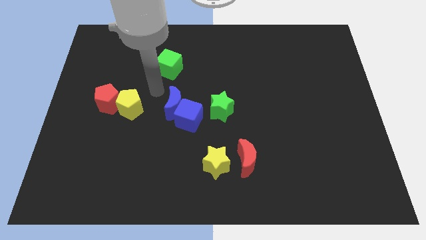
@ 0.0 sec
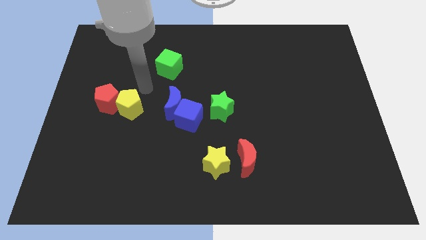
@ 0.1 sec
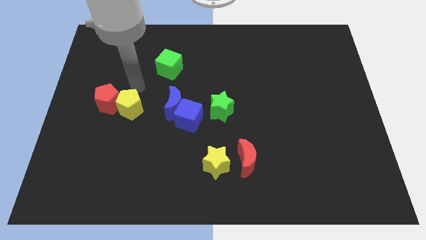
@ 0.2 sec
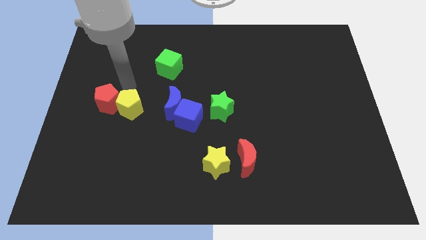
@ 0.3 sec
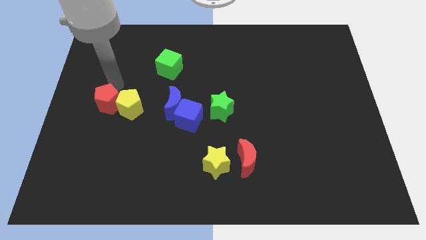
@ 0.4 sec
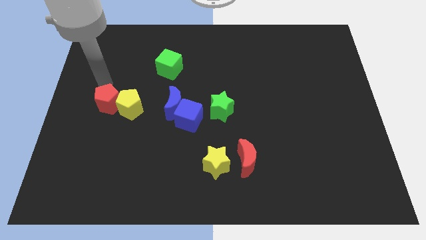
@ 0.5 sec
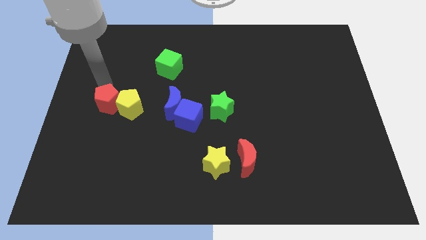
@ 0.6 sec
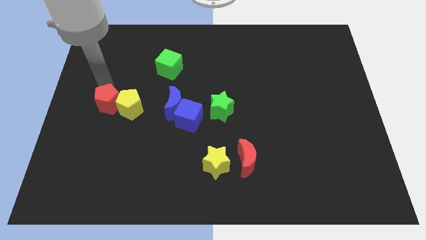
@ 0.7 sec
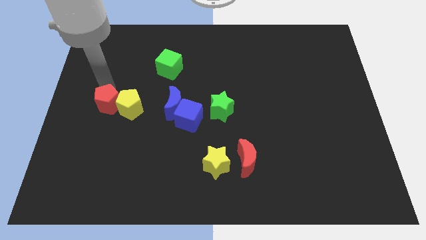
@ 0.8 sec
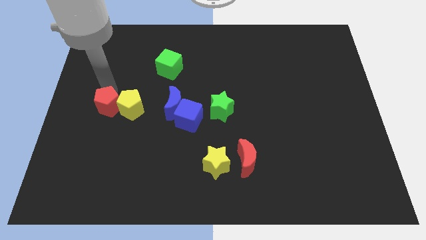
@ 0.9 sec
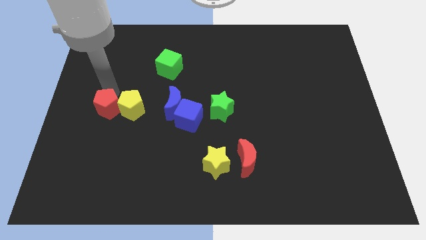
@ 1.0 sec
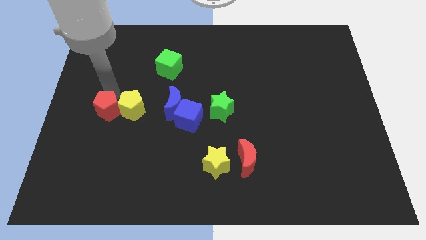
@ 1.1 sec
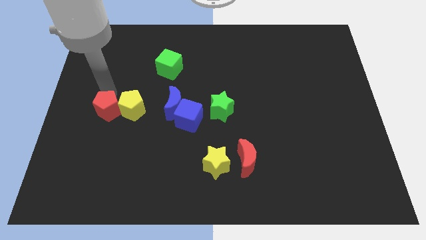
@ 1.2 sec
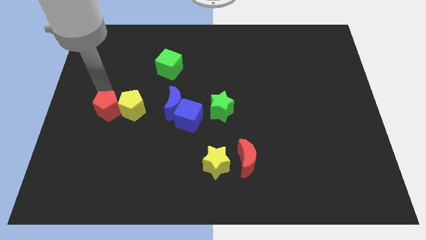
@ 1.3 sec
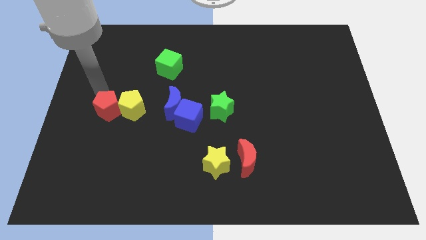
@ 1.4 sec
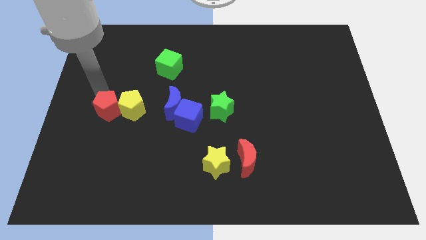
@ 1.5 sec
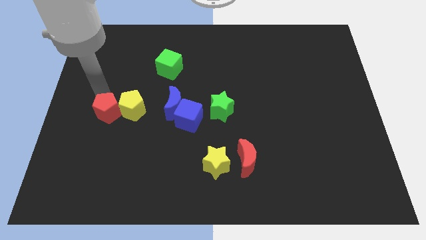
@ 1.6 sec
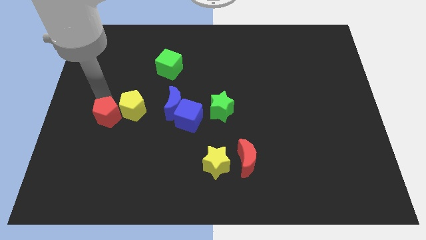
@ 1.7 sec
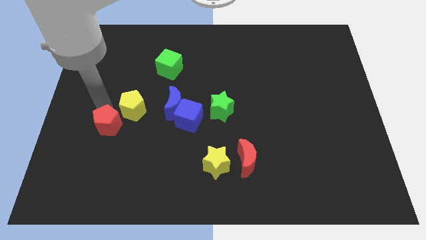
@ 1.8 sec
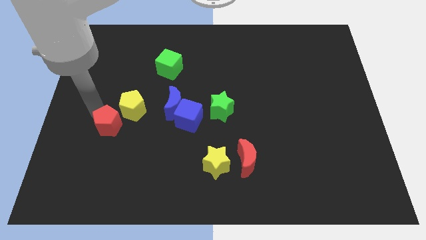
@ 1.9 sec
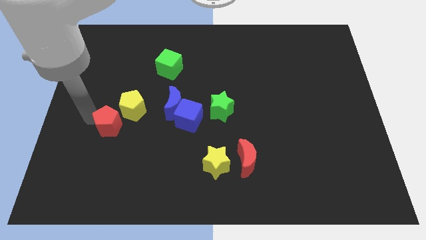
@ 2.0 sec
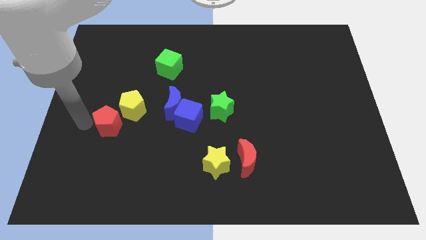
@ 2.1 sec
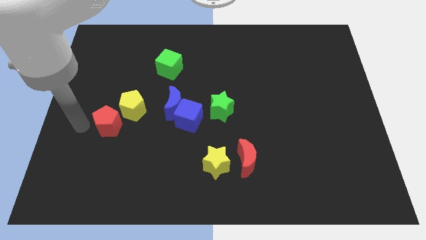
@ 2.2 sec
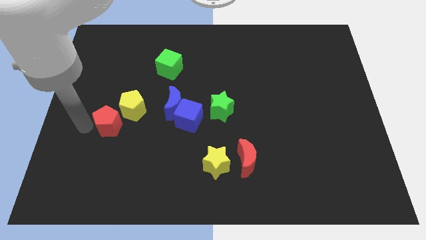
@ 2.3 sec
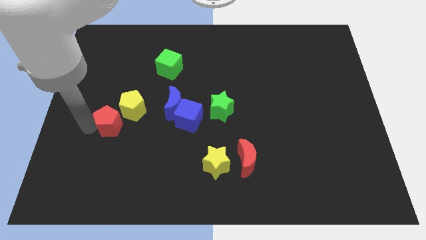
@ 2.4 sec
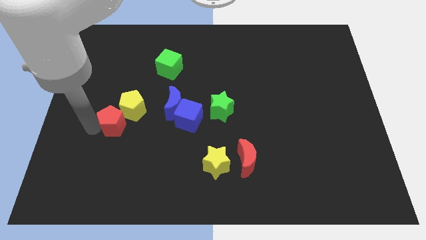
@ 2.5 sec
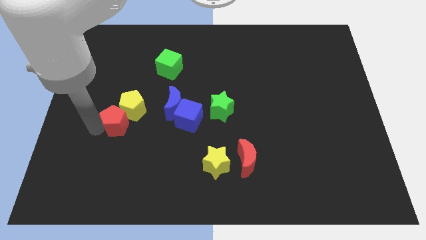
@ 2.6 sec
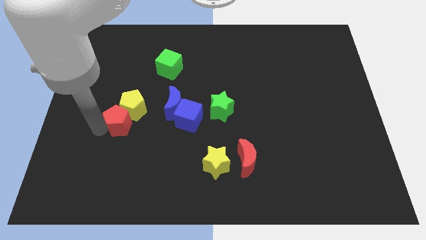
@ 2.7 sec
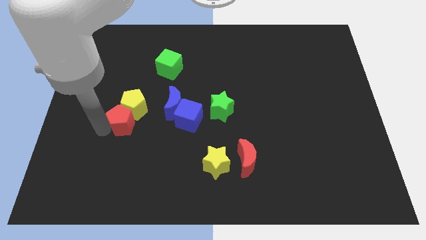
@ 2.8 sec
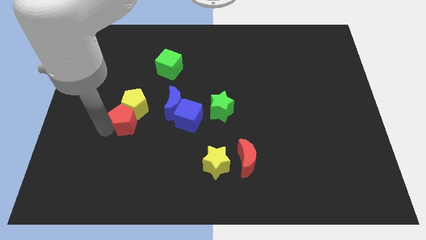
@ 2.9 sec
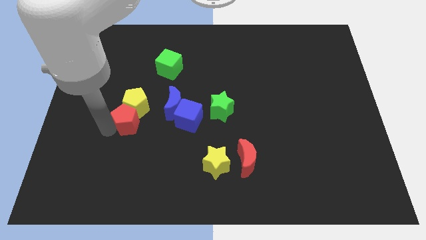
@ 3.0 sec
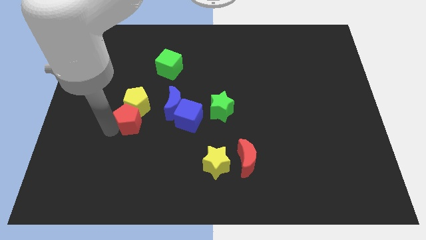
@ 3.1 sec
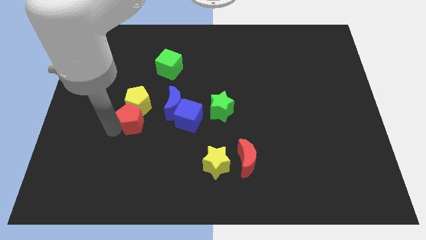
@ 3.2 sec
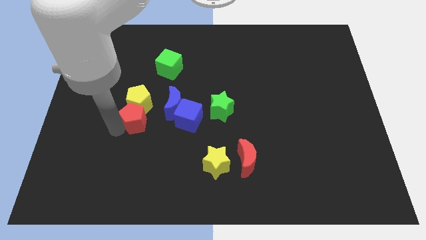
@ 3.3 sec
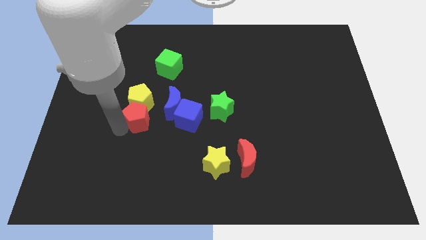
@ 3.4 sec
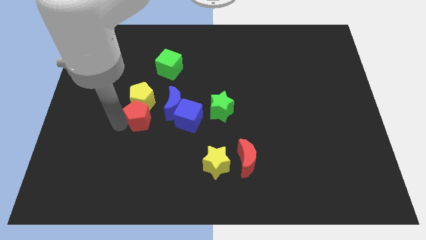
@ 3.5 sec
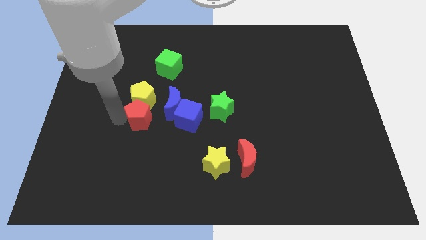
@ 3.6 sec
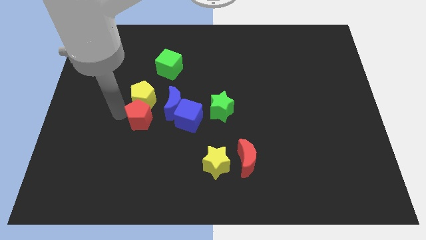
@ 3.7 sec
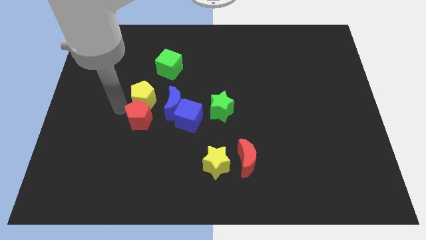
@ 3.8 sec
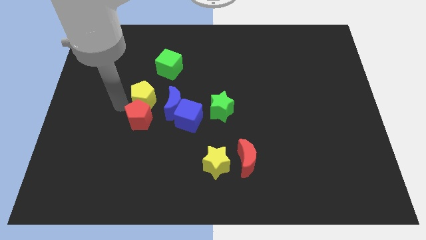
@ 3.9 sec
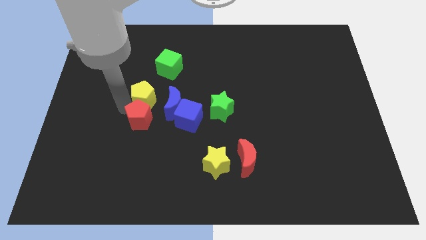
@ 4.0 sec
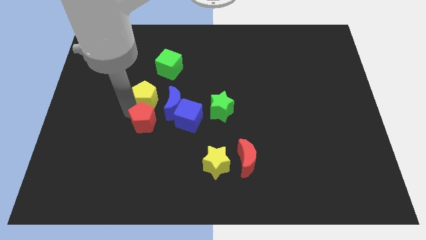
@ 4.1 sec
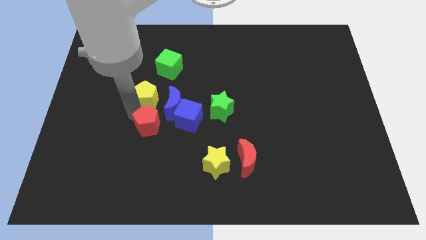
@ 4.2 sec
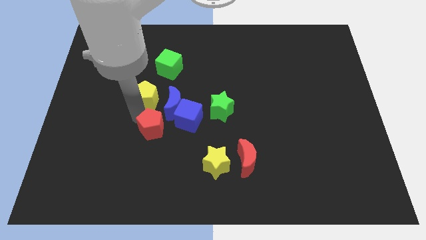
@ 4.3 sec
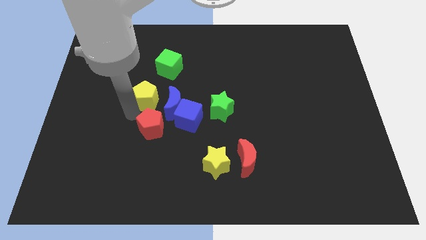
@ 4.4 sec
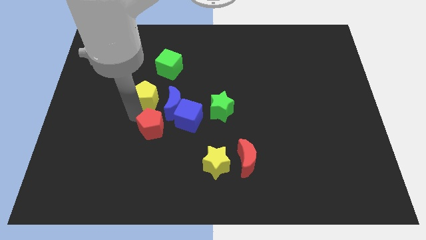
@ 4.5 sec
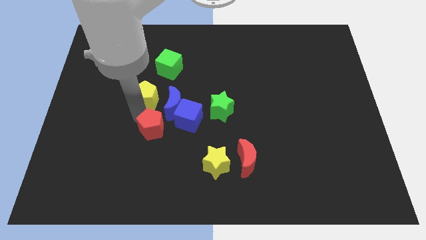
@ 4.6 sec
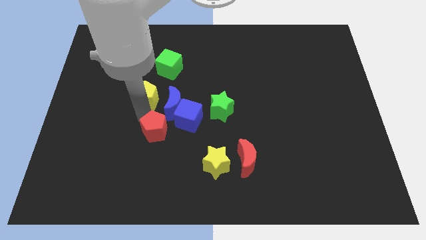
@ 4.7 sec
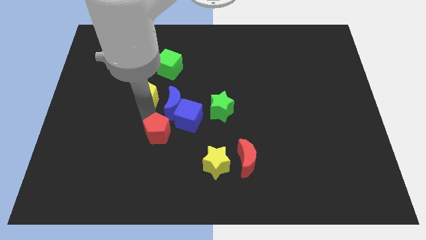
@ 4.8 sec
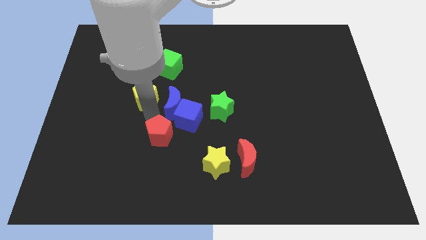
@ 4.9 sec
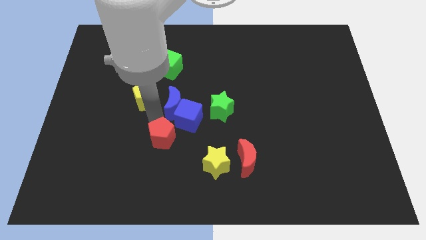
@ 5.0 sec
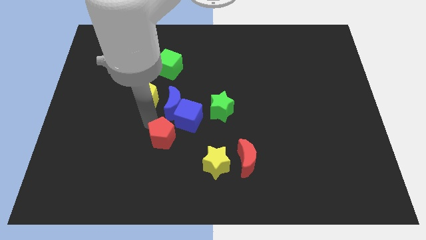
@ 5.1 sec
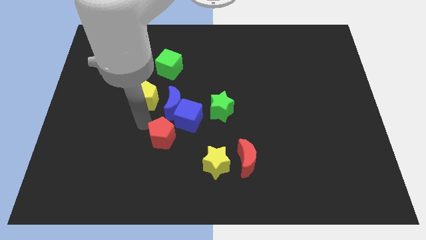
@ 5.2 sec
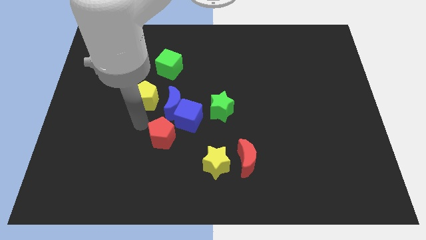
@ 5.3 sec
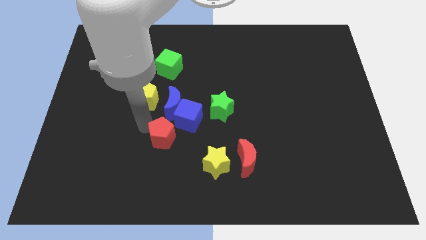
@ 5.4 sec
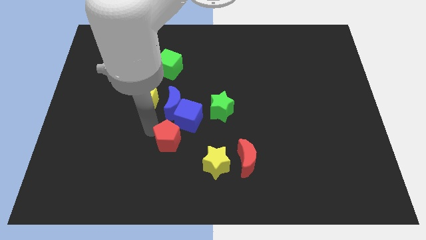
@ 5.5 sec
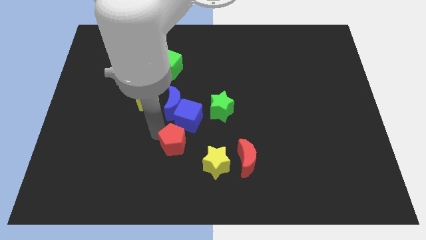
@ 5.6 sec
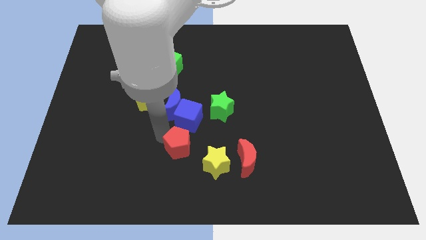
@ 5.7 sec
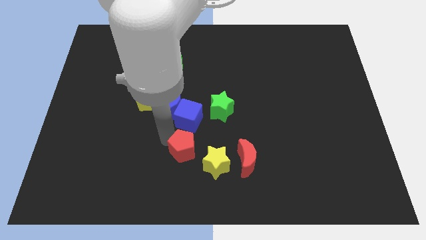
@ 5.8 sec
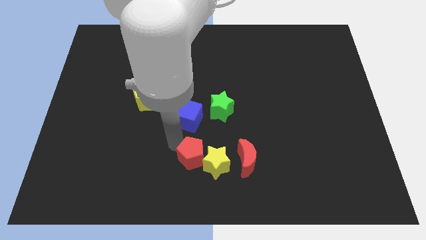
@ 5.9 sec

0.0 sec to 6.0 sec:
move the red pentagon to the yellow star

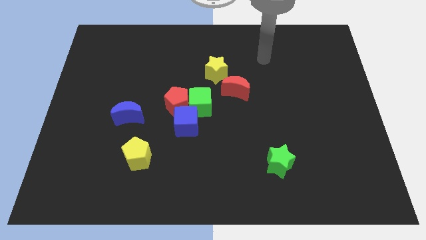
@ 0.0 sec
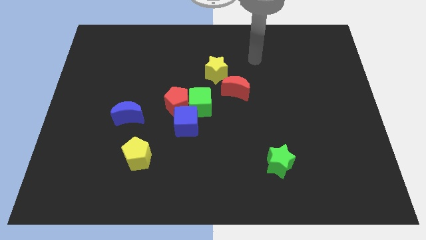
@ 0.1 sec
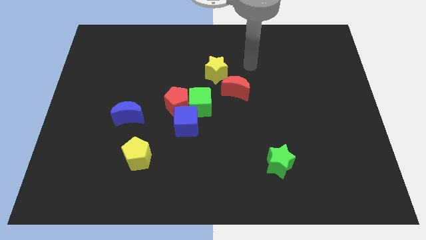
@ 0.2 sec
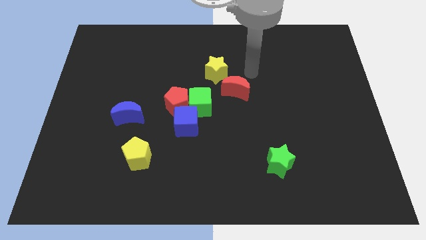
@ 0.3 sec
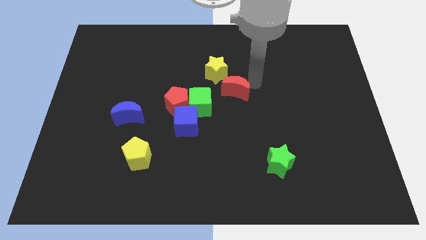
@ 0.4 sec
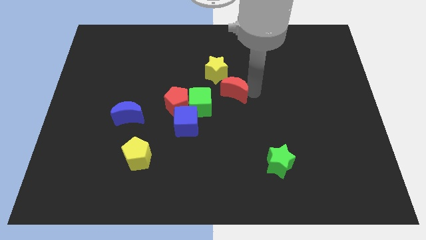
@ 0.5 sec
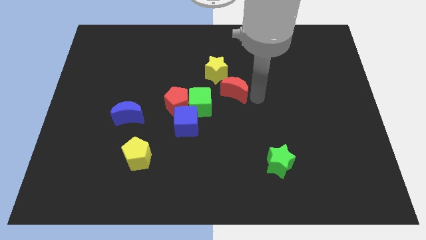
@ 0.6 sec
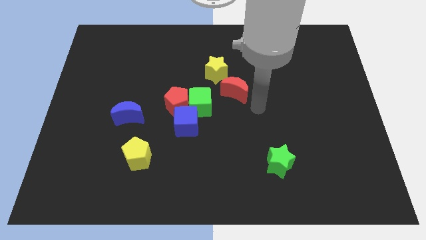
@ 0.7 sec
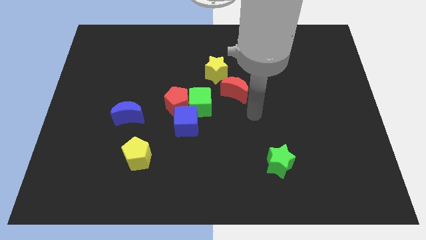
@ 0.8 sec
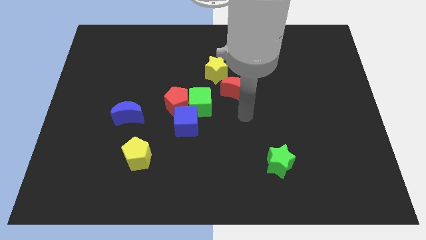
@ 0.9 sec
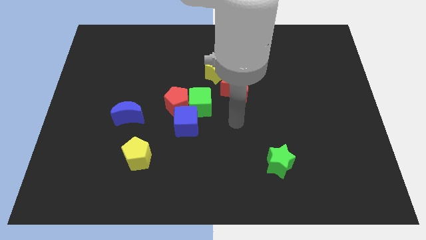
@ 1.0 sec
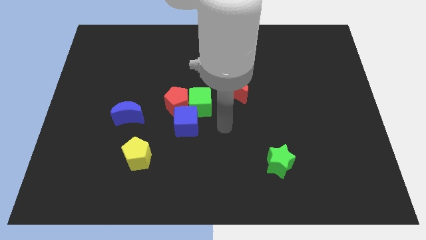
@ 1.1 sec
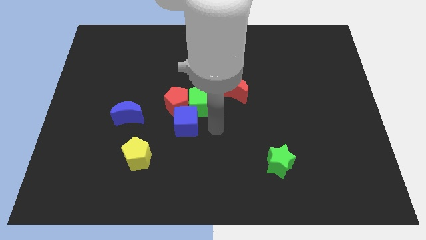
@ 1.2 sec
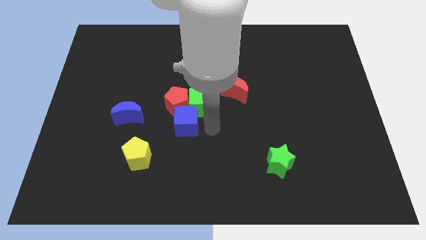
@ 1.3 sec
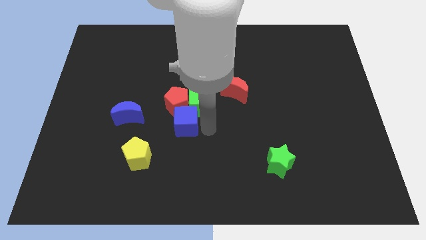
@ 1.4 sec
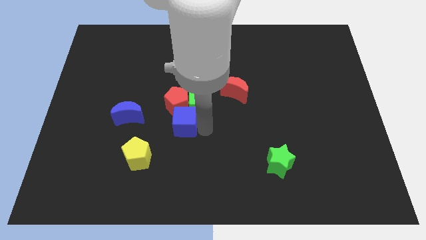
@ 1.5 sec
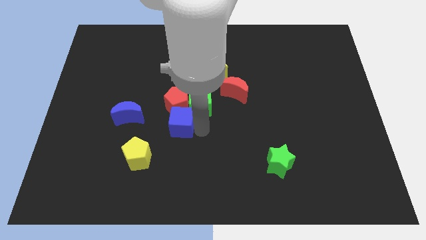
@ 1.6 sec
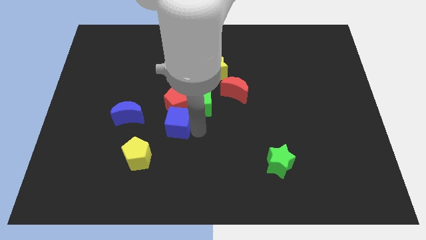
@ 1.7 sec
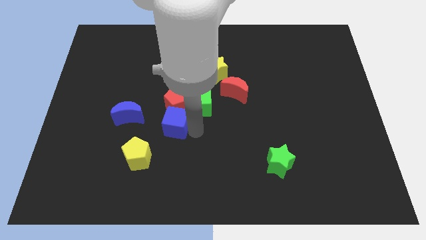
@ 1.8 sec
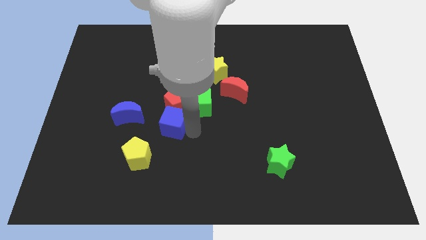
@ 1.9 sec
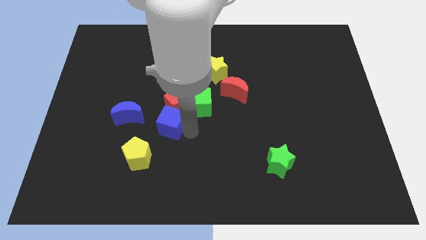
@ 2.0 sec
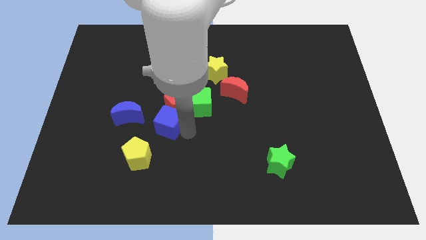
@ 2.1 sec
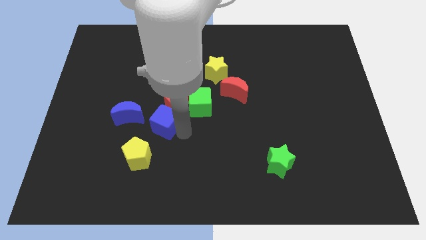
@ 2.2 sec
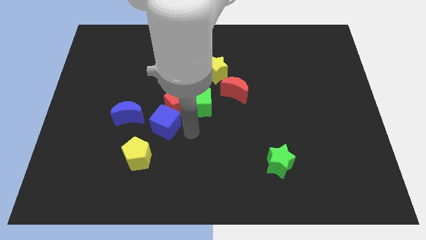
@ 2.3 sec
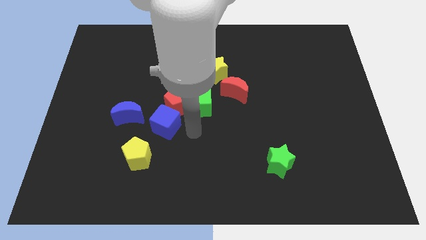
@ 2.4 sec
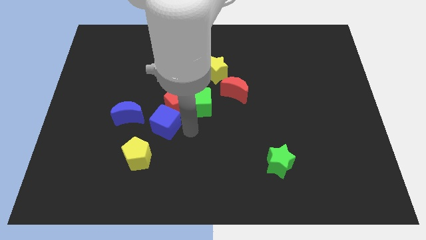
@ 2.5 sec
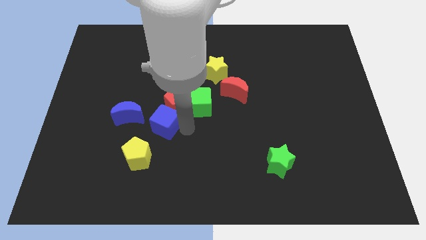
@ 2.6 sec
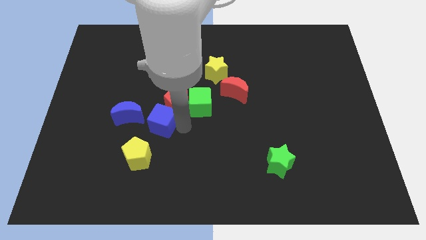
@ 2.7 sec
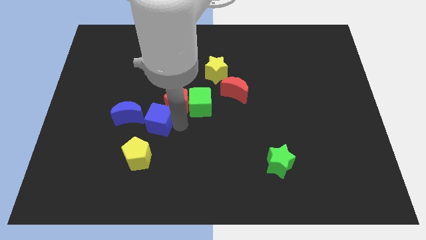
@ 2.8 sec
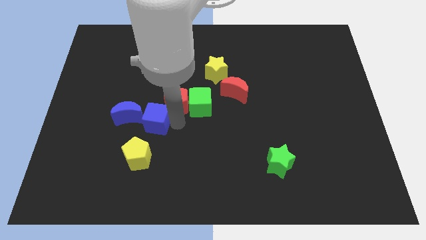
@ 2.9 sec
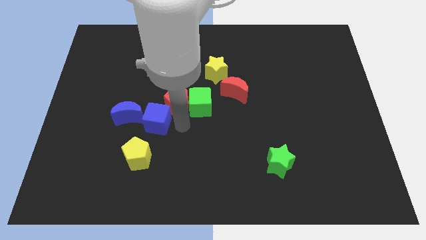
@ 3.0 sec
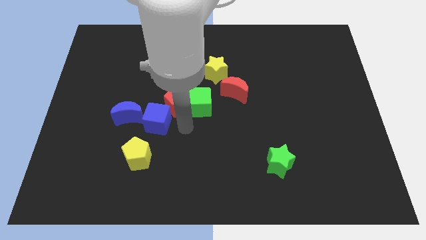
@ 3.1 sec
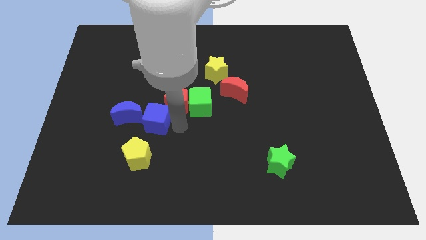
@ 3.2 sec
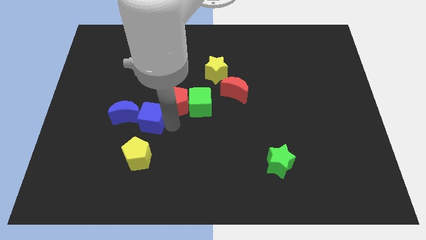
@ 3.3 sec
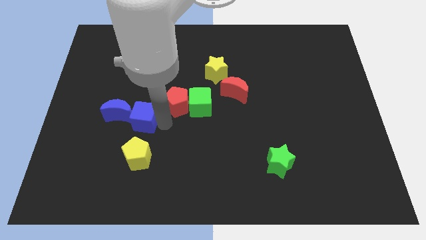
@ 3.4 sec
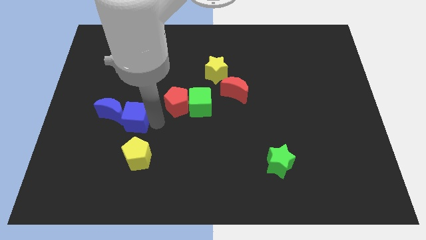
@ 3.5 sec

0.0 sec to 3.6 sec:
push the blue cube to the blue moon
